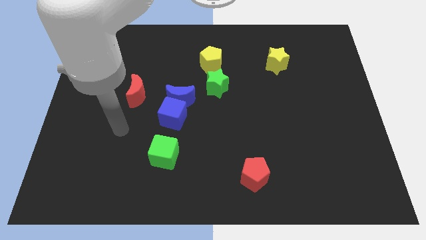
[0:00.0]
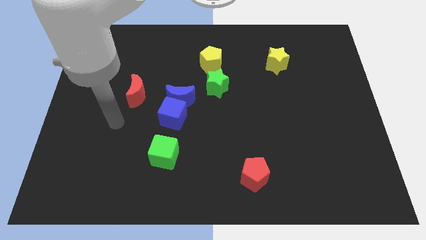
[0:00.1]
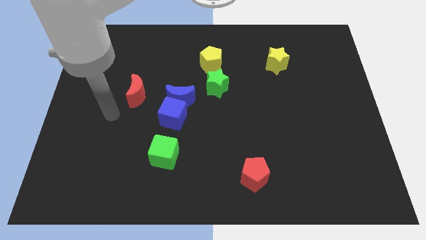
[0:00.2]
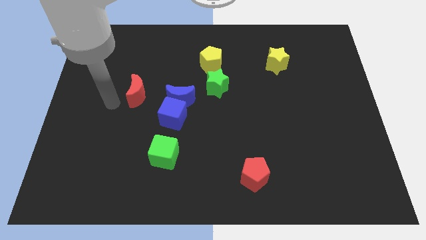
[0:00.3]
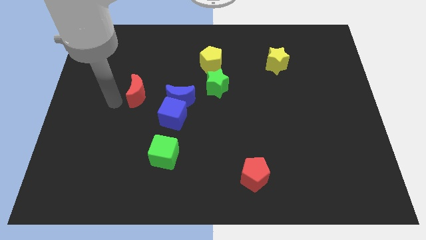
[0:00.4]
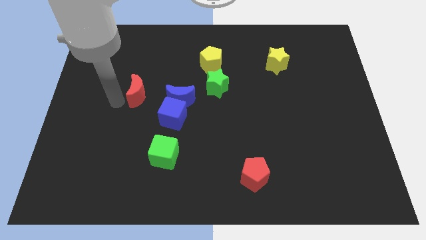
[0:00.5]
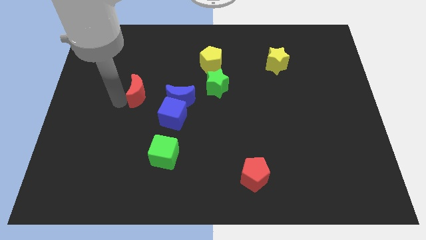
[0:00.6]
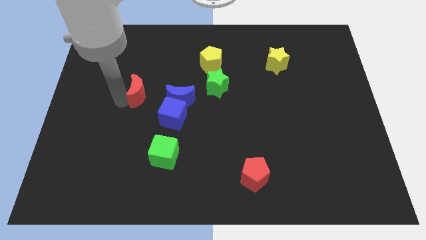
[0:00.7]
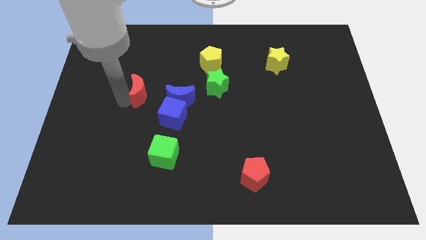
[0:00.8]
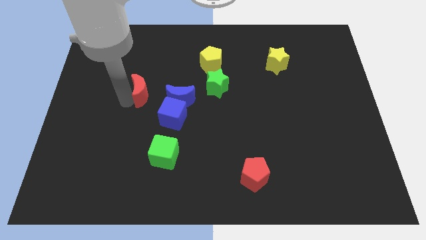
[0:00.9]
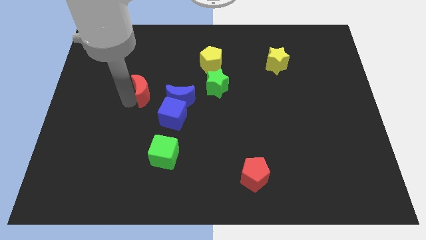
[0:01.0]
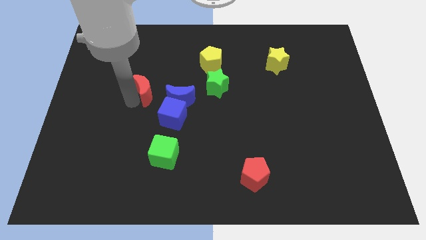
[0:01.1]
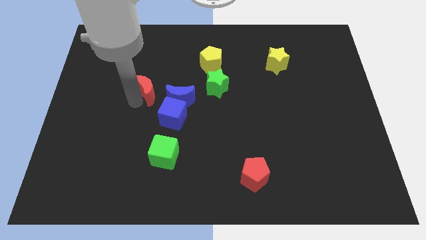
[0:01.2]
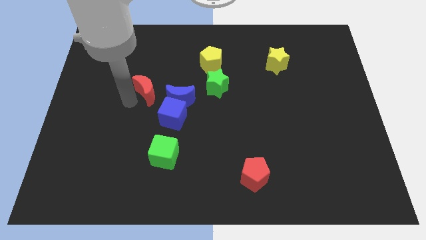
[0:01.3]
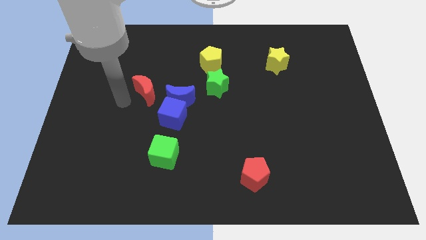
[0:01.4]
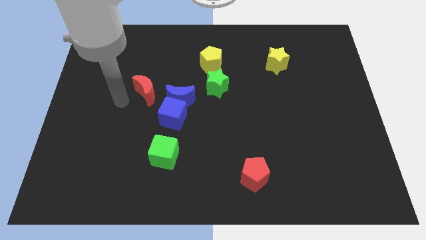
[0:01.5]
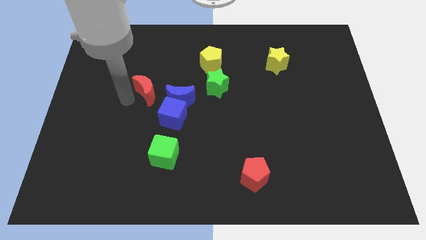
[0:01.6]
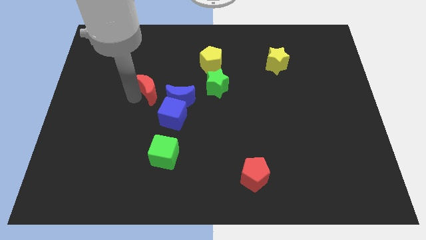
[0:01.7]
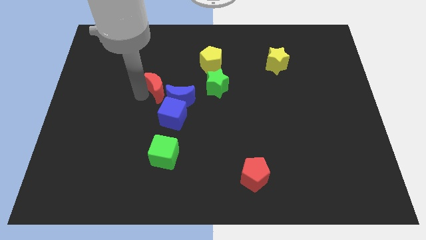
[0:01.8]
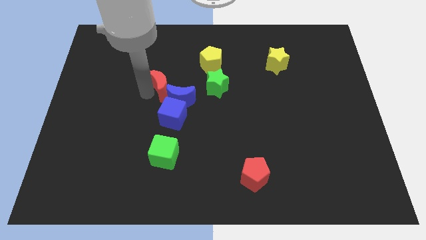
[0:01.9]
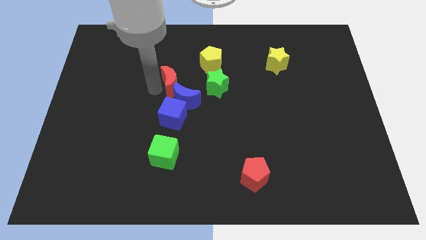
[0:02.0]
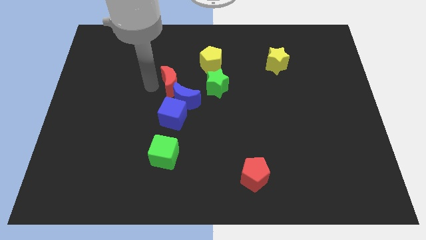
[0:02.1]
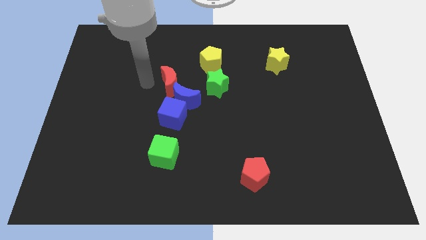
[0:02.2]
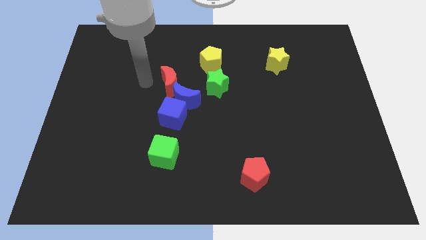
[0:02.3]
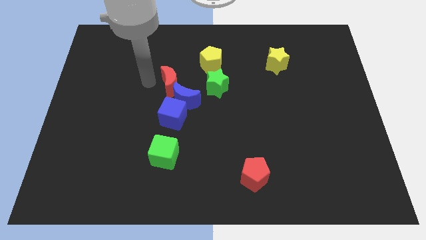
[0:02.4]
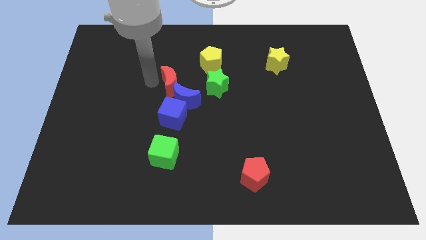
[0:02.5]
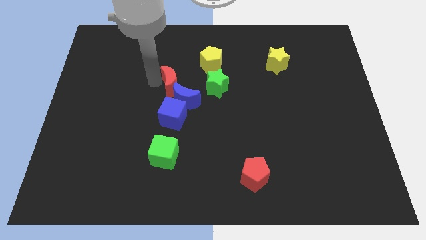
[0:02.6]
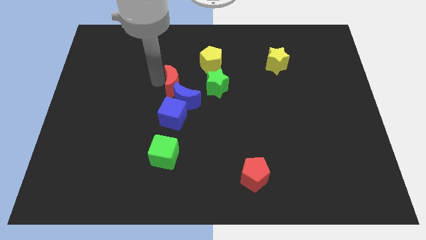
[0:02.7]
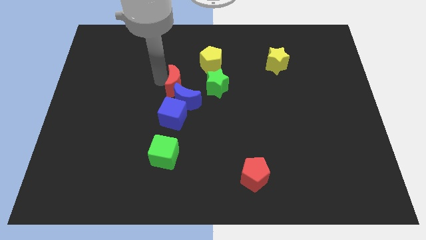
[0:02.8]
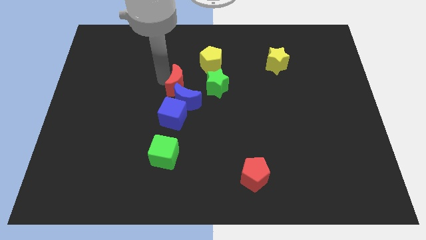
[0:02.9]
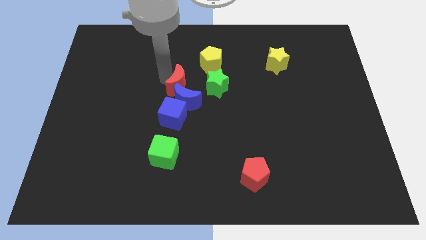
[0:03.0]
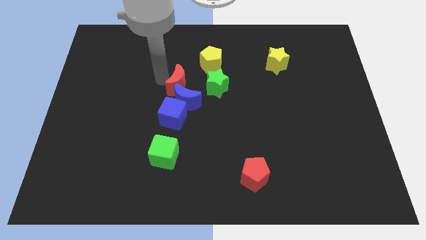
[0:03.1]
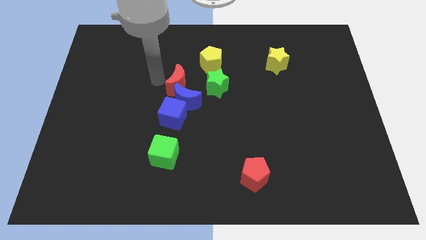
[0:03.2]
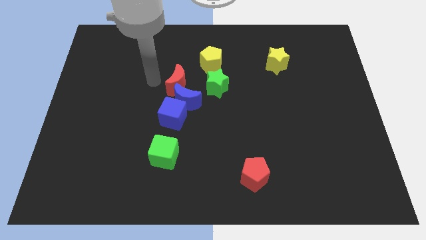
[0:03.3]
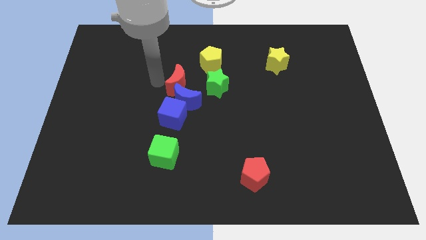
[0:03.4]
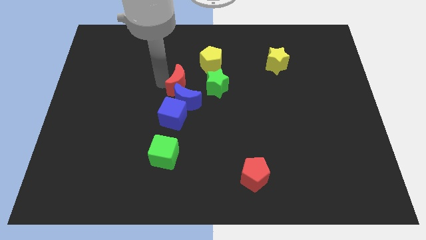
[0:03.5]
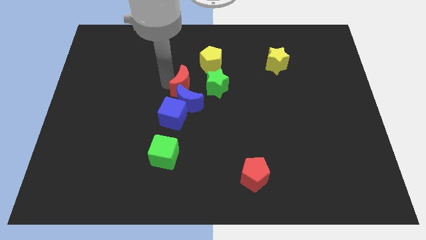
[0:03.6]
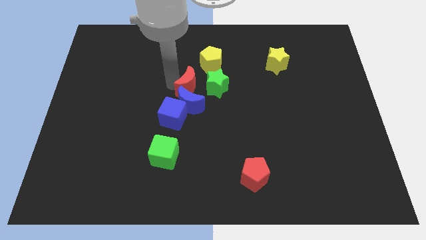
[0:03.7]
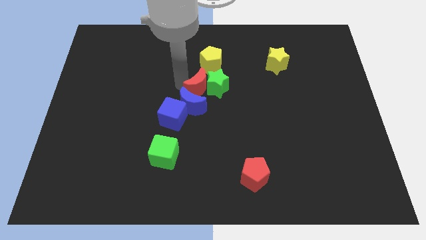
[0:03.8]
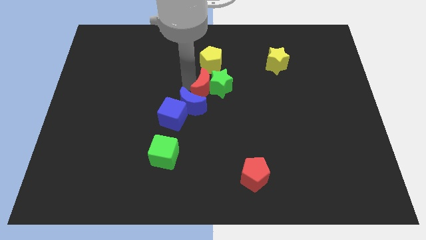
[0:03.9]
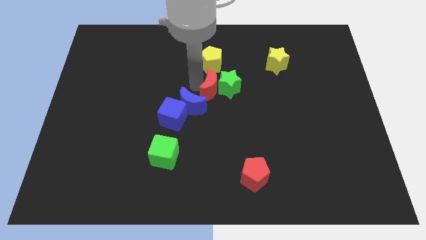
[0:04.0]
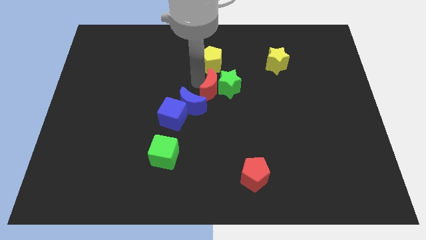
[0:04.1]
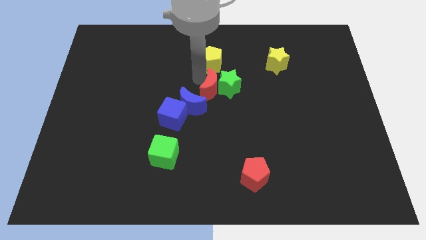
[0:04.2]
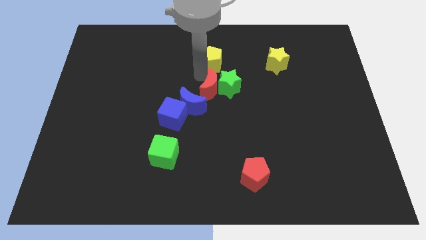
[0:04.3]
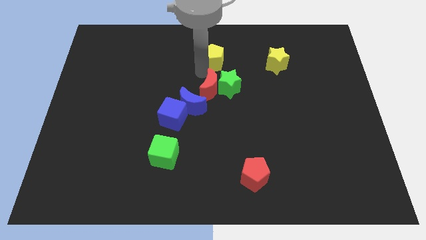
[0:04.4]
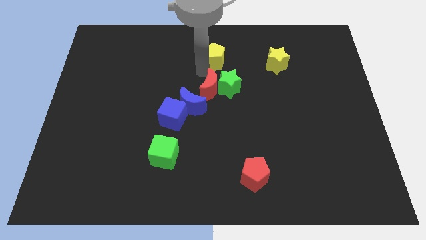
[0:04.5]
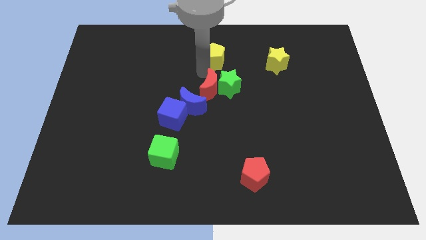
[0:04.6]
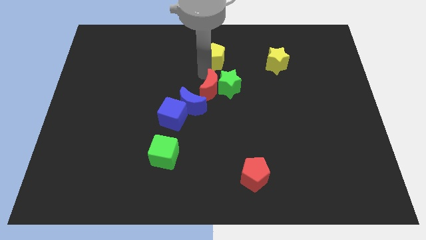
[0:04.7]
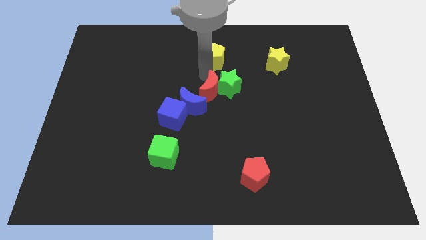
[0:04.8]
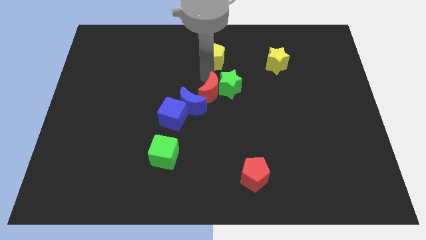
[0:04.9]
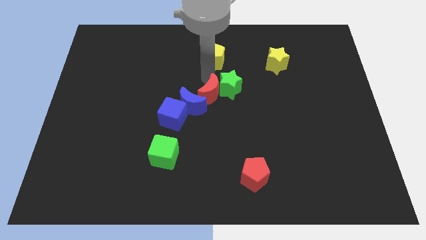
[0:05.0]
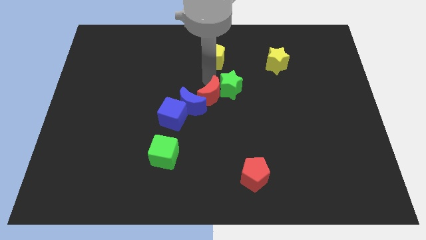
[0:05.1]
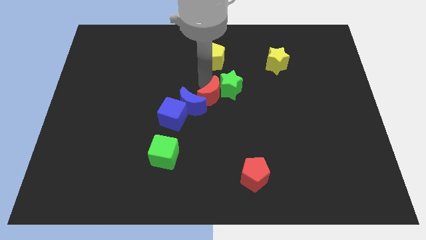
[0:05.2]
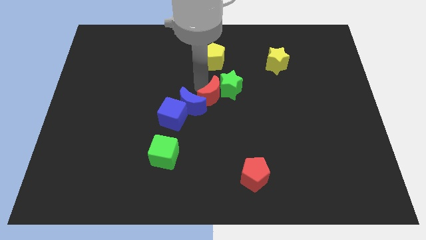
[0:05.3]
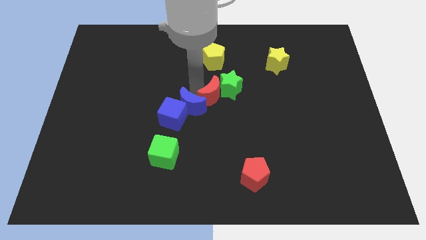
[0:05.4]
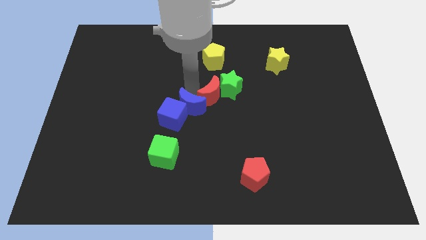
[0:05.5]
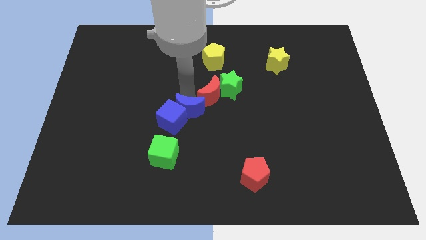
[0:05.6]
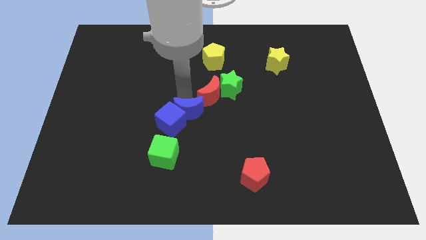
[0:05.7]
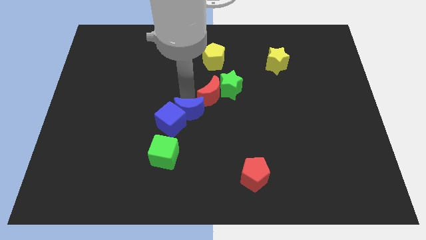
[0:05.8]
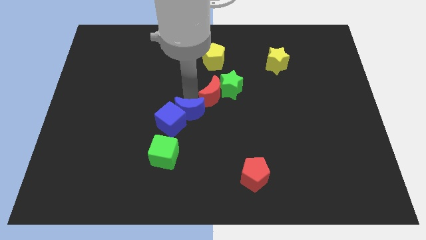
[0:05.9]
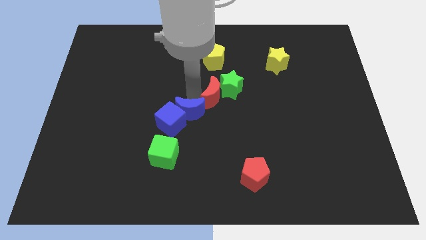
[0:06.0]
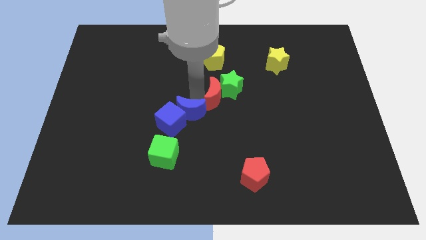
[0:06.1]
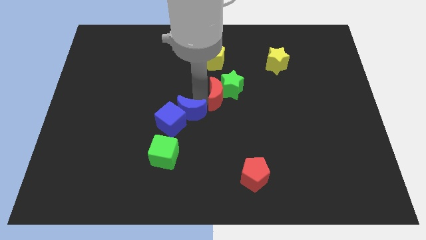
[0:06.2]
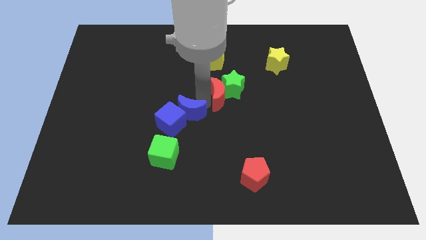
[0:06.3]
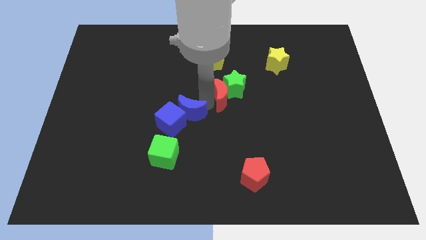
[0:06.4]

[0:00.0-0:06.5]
slide the red moon to the right

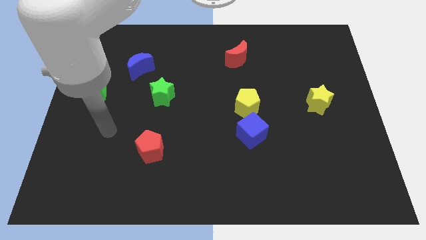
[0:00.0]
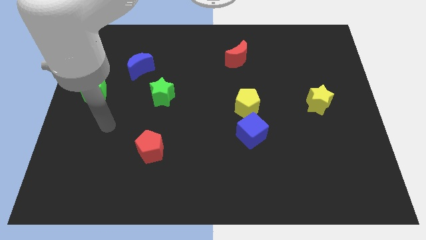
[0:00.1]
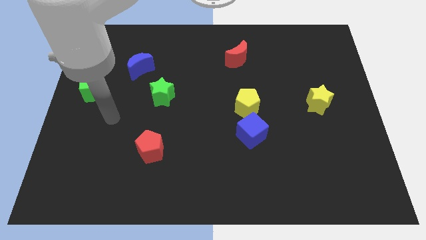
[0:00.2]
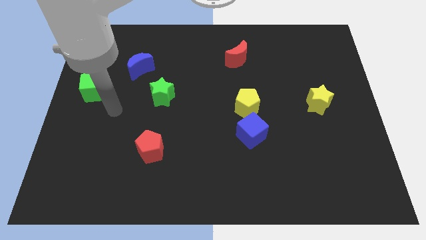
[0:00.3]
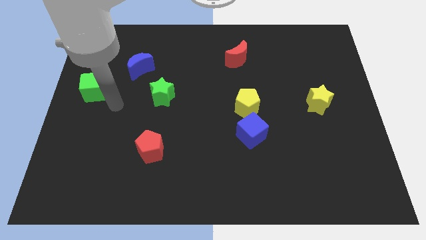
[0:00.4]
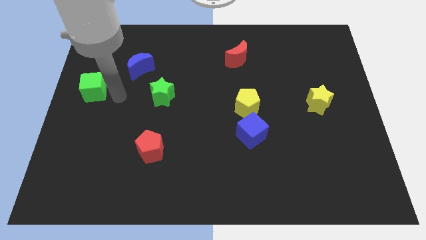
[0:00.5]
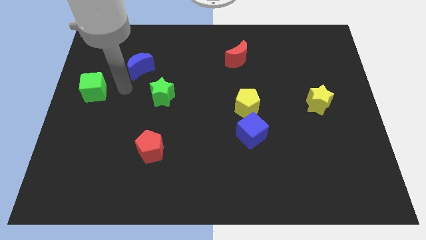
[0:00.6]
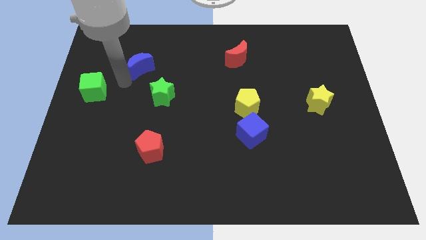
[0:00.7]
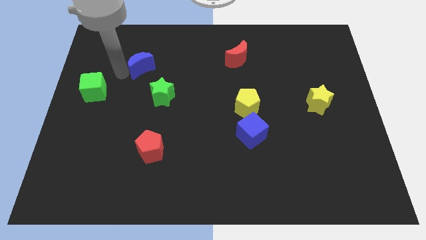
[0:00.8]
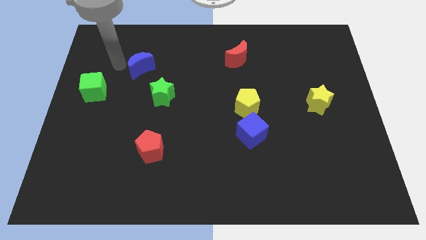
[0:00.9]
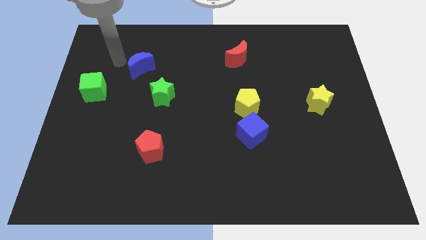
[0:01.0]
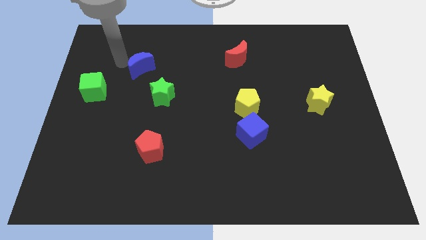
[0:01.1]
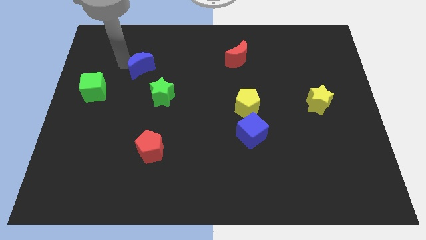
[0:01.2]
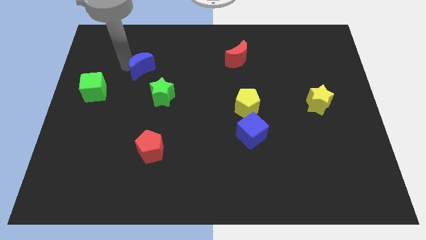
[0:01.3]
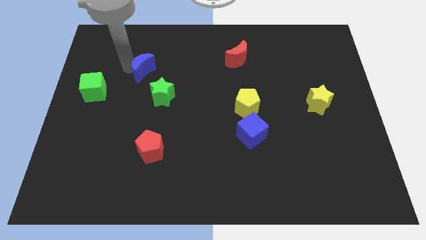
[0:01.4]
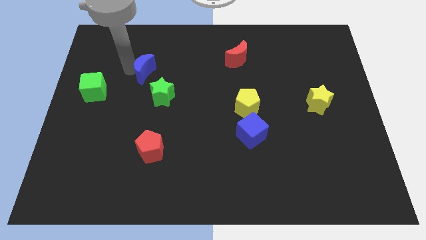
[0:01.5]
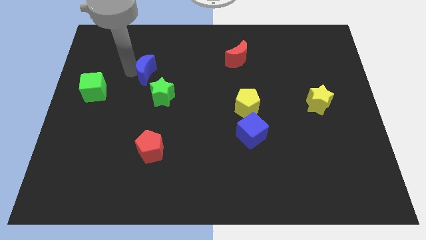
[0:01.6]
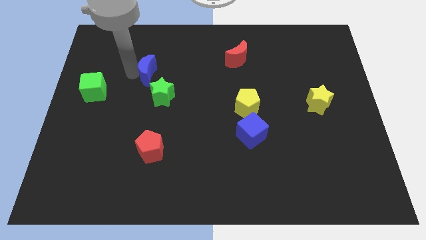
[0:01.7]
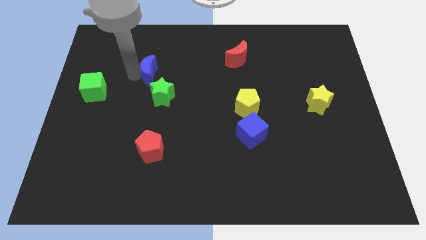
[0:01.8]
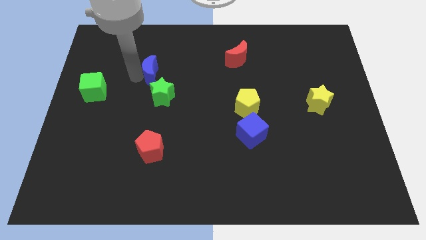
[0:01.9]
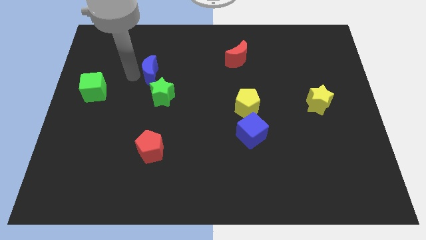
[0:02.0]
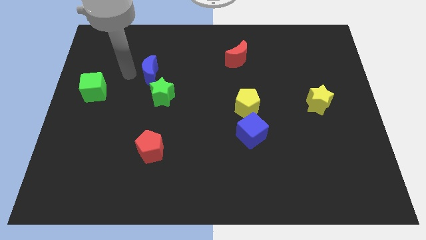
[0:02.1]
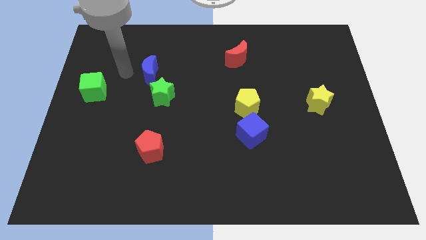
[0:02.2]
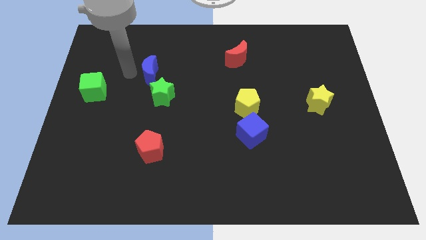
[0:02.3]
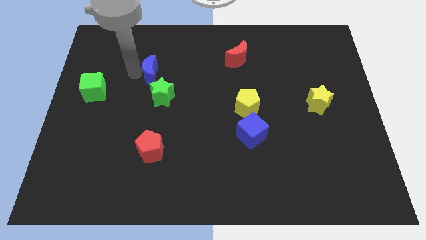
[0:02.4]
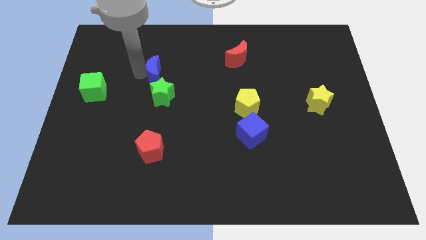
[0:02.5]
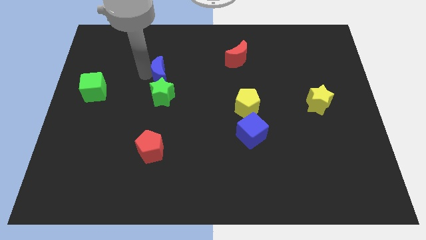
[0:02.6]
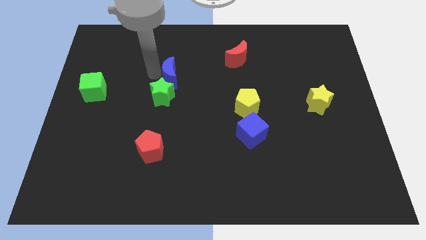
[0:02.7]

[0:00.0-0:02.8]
push the blue moon downwards and right slightly
